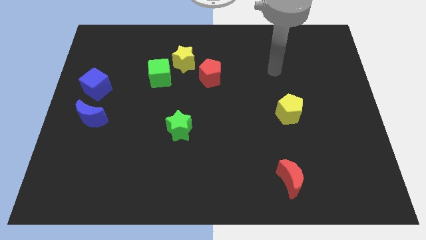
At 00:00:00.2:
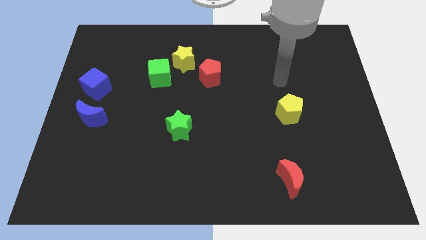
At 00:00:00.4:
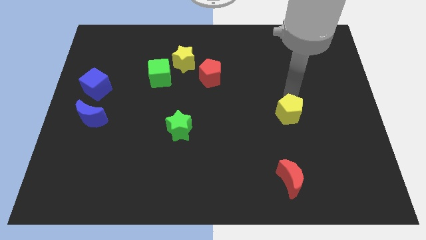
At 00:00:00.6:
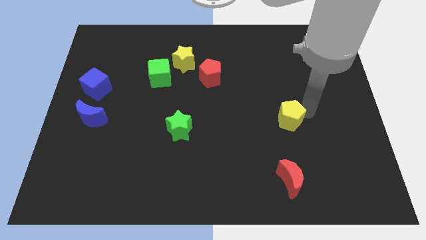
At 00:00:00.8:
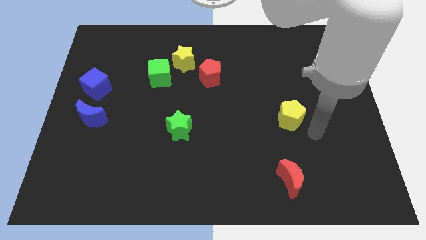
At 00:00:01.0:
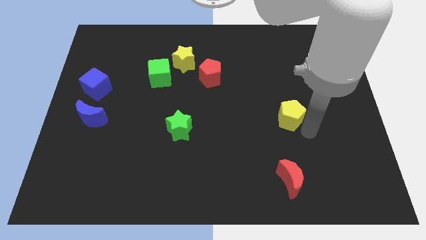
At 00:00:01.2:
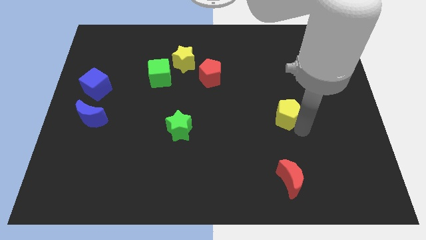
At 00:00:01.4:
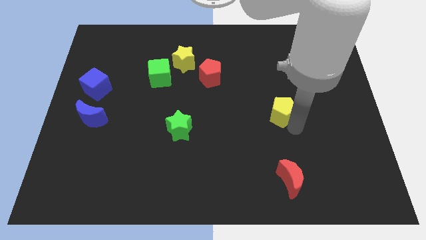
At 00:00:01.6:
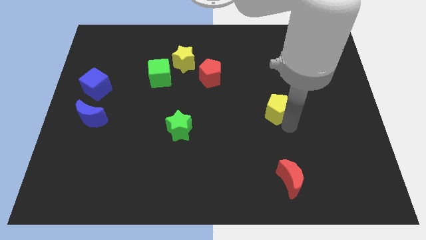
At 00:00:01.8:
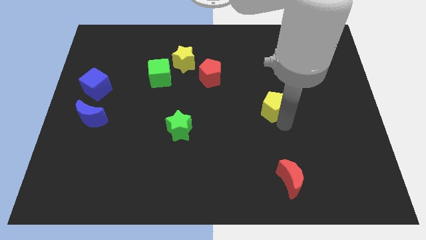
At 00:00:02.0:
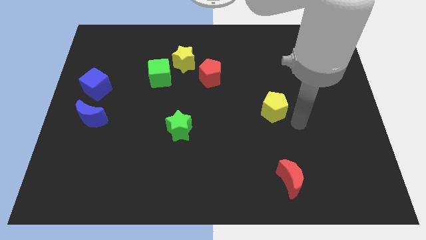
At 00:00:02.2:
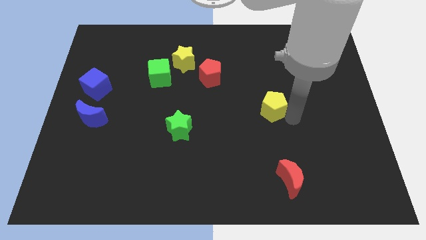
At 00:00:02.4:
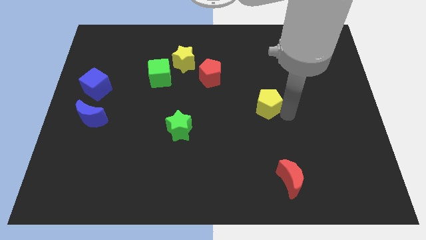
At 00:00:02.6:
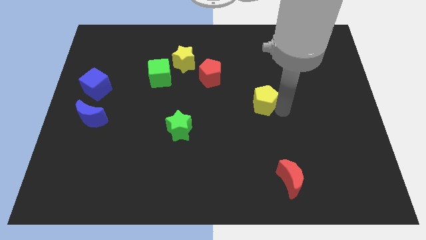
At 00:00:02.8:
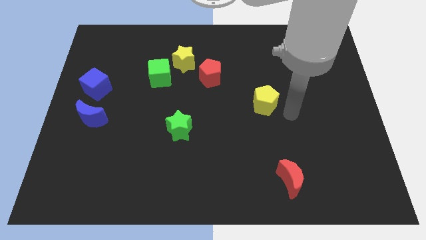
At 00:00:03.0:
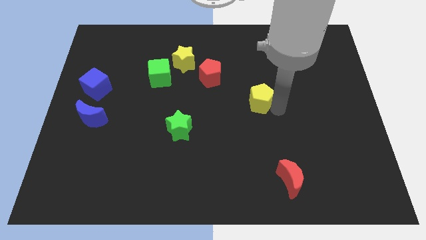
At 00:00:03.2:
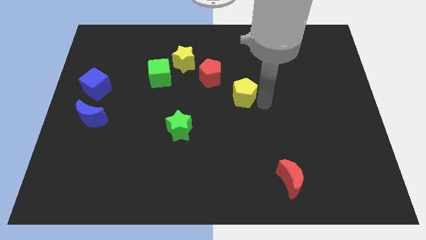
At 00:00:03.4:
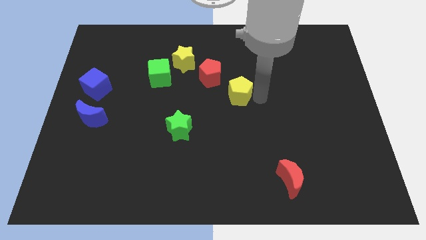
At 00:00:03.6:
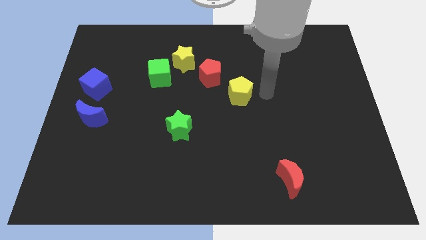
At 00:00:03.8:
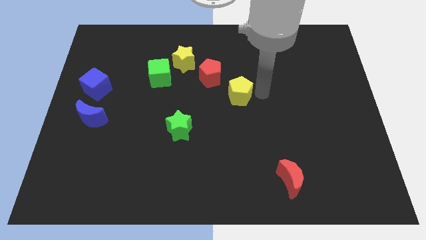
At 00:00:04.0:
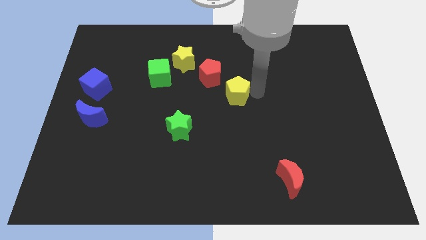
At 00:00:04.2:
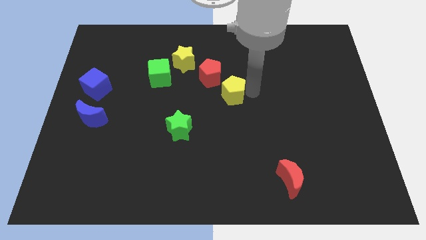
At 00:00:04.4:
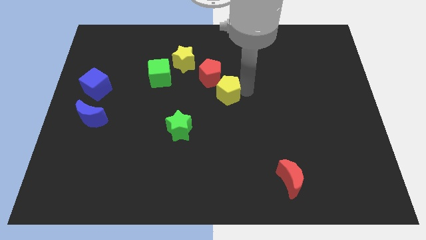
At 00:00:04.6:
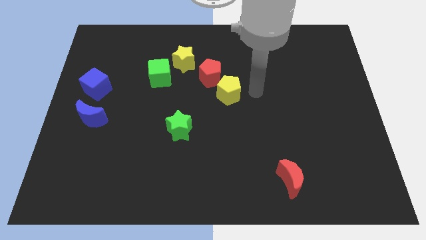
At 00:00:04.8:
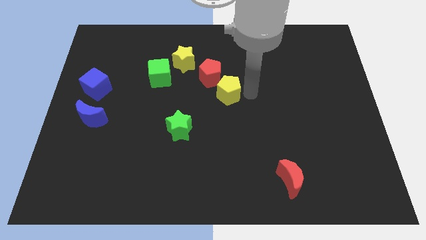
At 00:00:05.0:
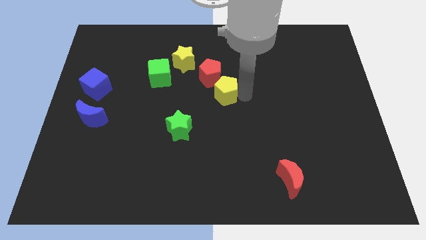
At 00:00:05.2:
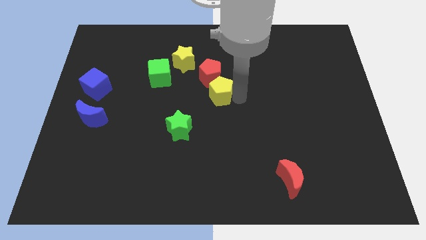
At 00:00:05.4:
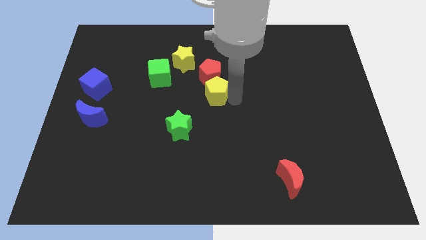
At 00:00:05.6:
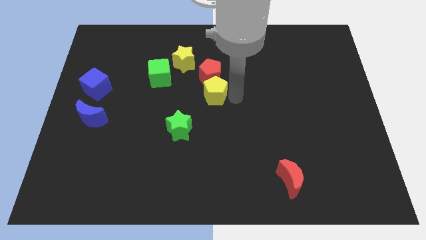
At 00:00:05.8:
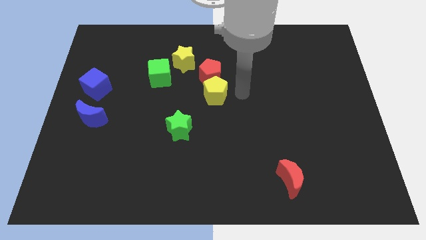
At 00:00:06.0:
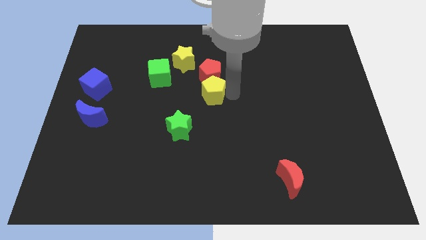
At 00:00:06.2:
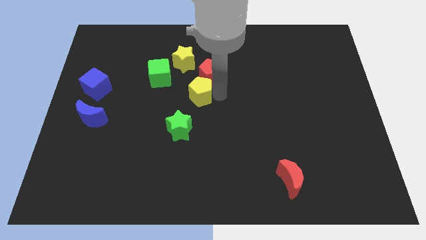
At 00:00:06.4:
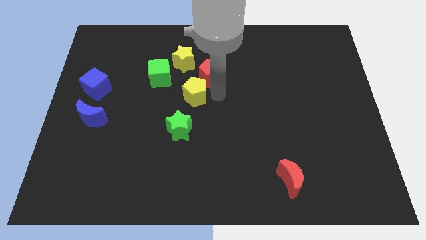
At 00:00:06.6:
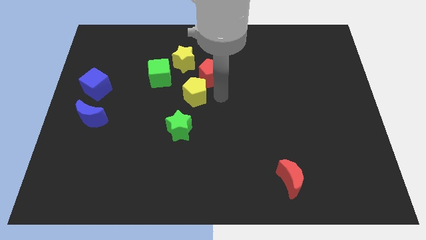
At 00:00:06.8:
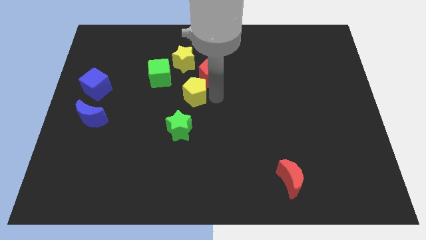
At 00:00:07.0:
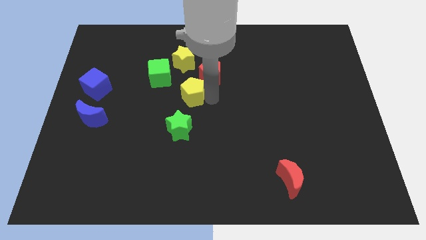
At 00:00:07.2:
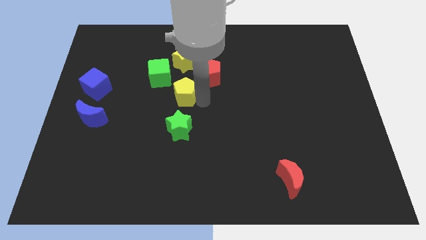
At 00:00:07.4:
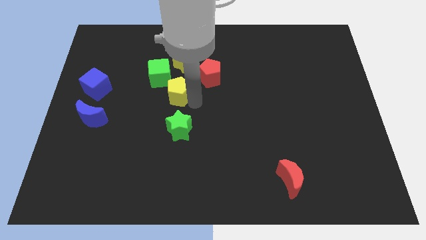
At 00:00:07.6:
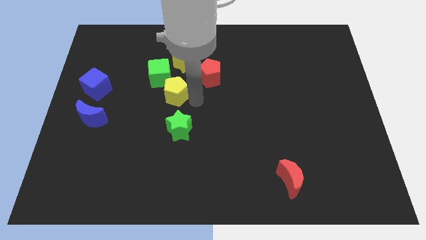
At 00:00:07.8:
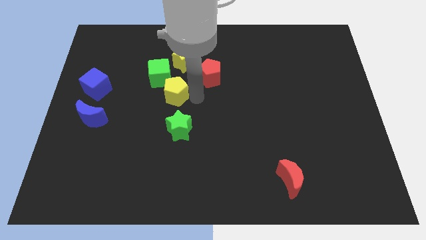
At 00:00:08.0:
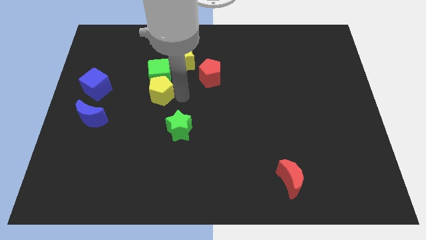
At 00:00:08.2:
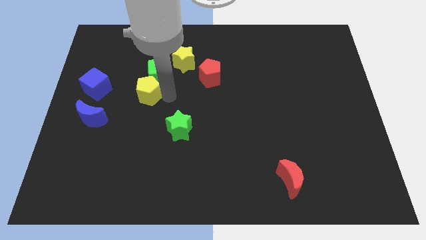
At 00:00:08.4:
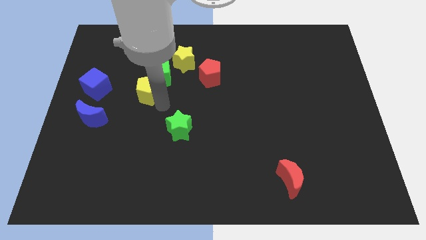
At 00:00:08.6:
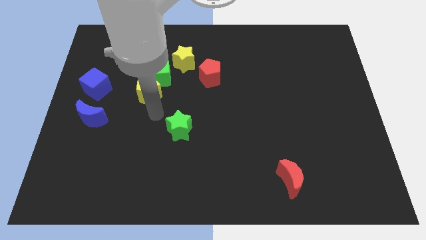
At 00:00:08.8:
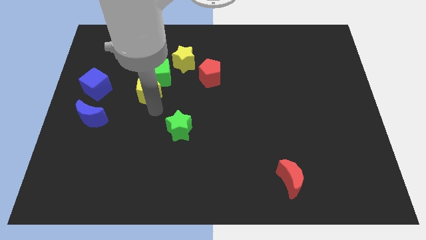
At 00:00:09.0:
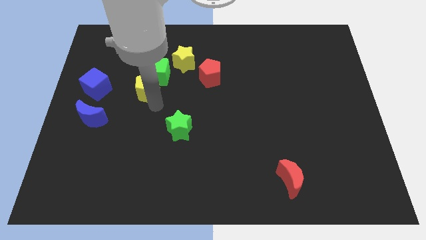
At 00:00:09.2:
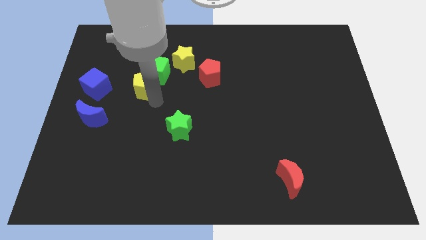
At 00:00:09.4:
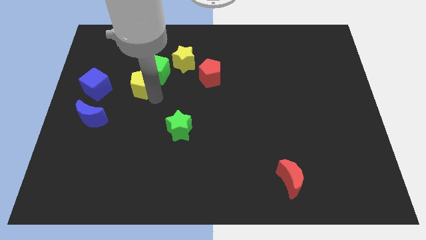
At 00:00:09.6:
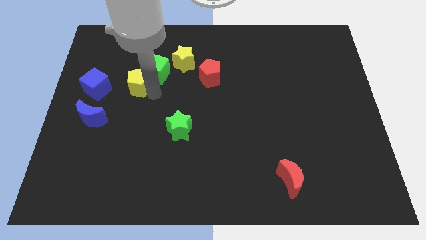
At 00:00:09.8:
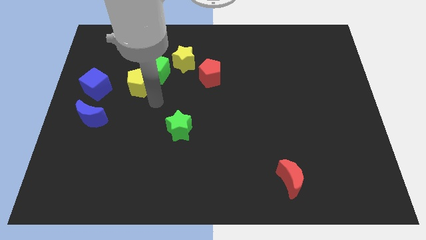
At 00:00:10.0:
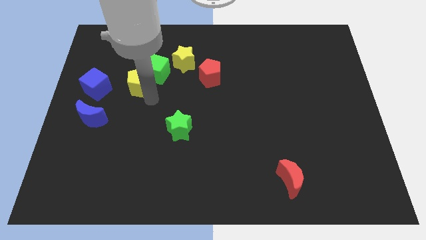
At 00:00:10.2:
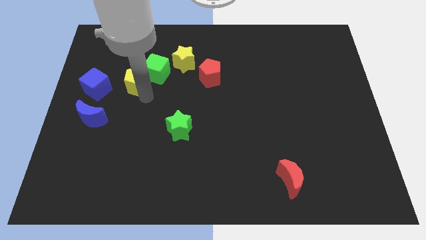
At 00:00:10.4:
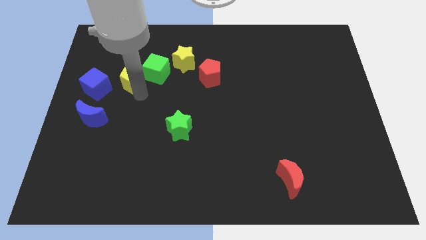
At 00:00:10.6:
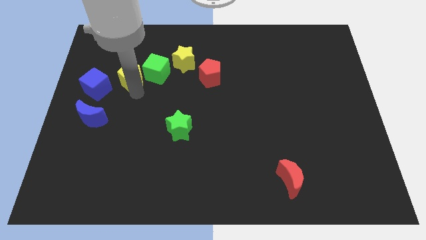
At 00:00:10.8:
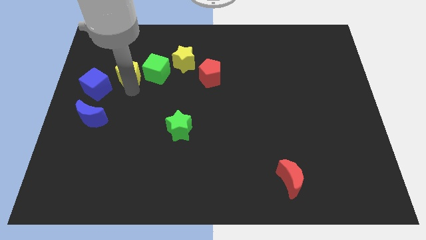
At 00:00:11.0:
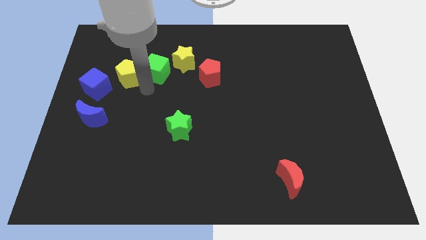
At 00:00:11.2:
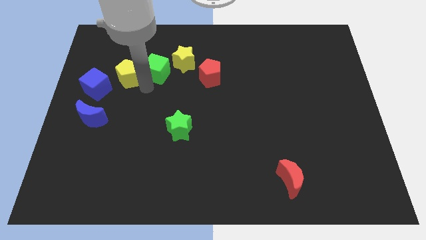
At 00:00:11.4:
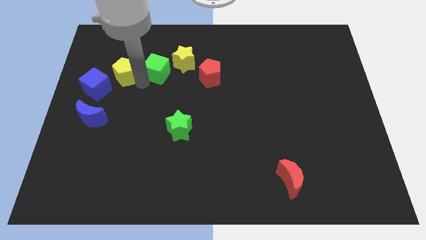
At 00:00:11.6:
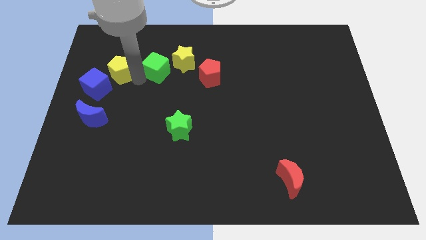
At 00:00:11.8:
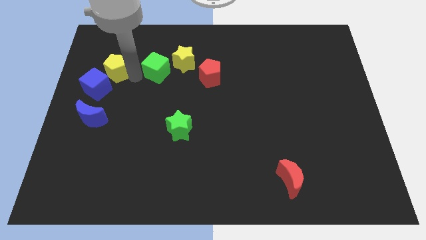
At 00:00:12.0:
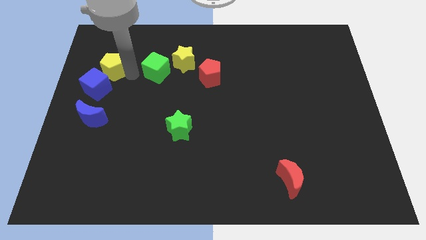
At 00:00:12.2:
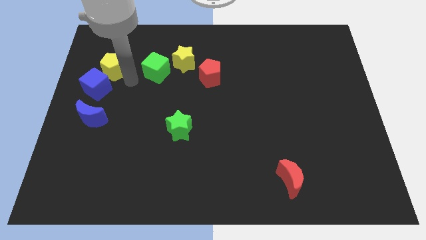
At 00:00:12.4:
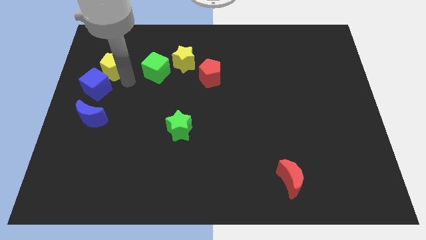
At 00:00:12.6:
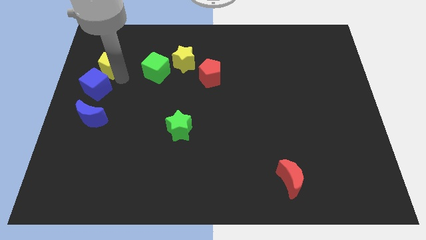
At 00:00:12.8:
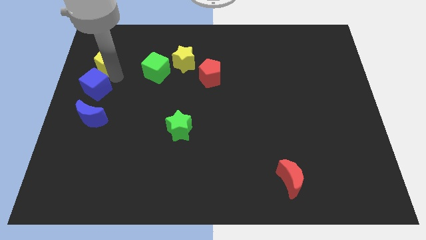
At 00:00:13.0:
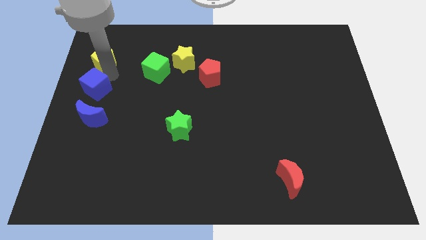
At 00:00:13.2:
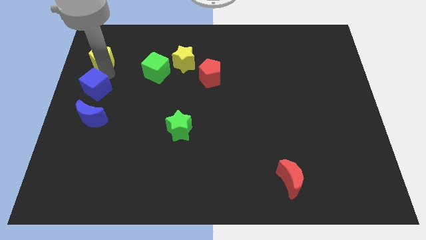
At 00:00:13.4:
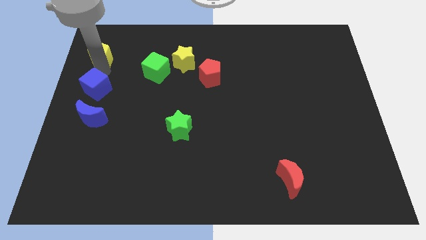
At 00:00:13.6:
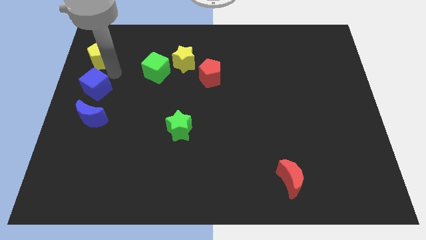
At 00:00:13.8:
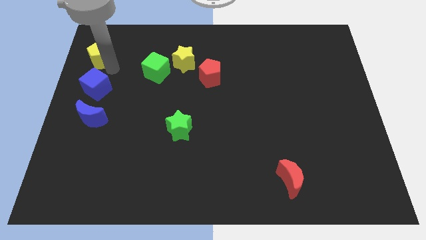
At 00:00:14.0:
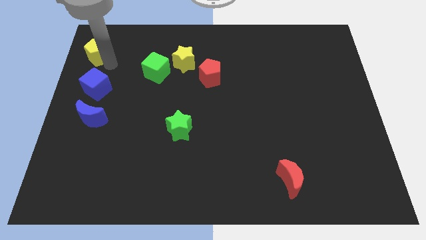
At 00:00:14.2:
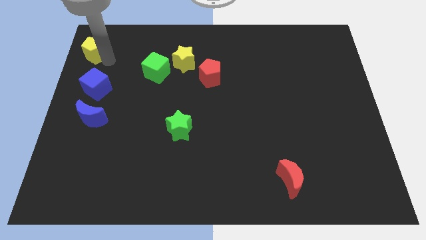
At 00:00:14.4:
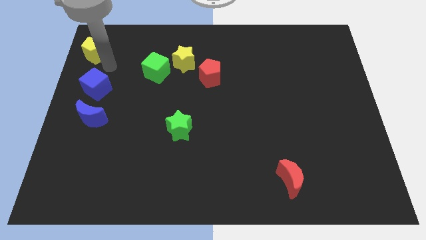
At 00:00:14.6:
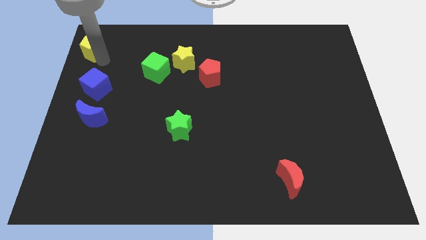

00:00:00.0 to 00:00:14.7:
move the yellow pentagon to the top left
